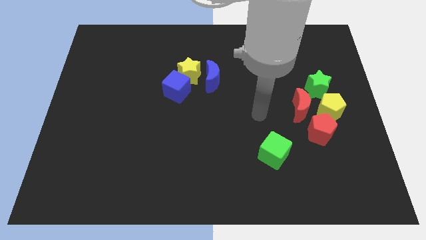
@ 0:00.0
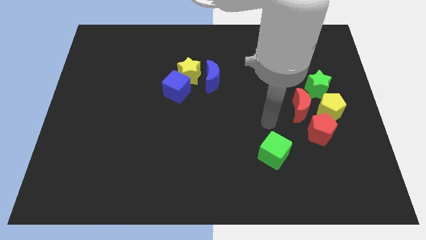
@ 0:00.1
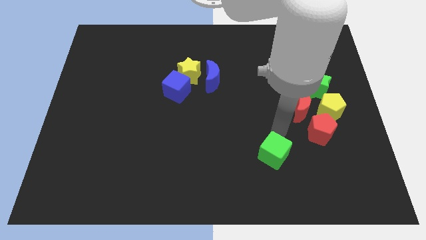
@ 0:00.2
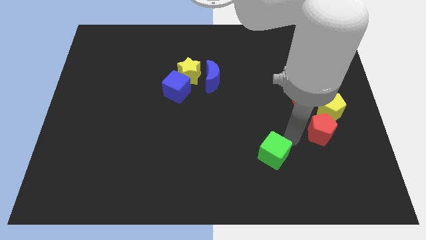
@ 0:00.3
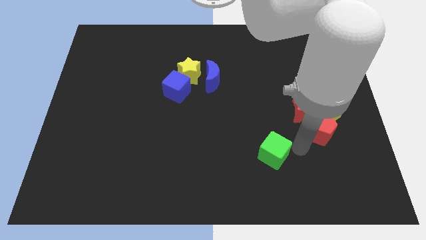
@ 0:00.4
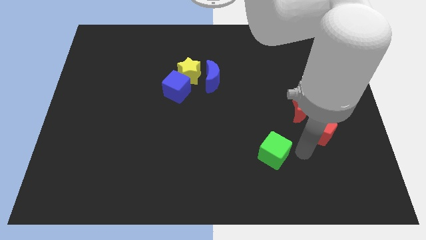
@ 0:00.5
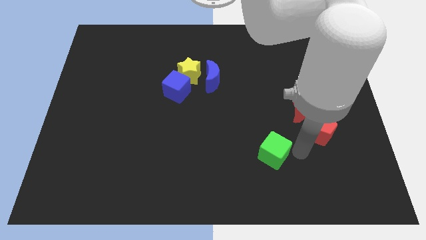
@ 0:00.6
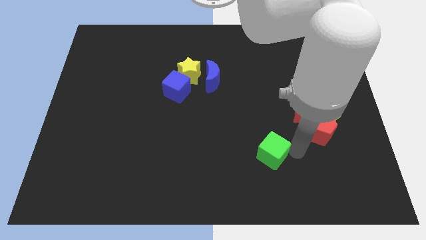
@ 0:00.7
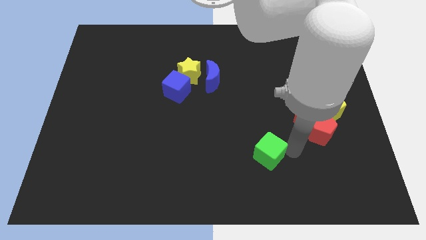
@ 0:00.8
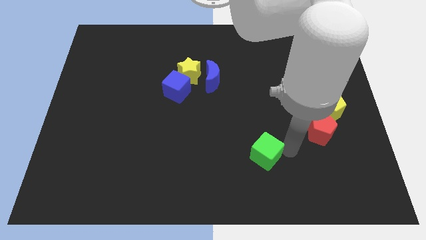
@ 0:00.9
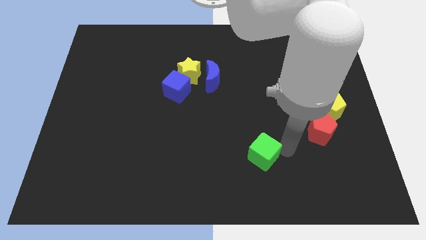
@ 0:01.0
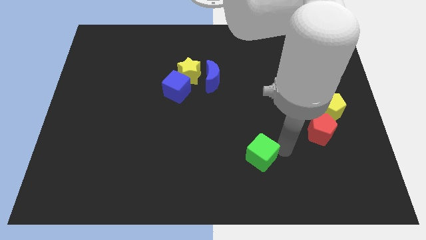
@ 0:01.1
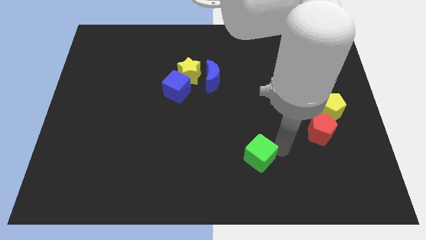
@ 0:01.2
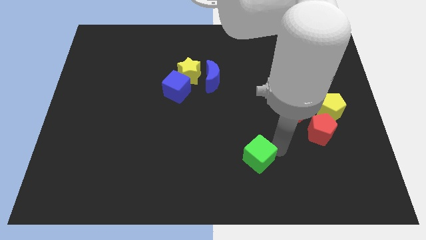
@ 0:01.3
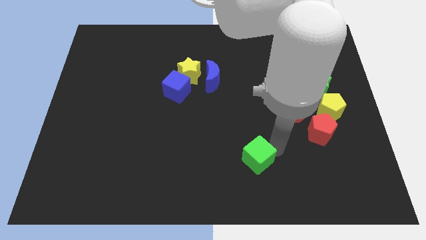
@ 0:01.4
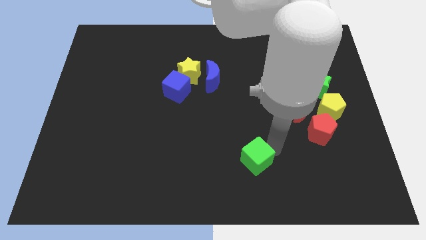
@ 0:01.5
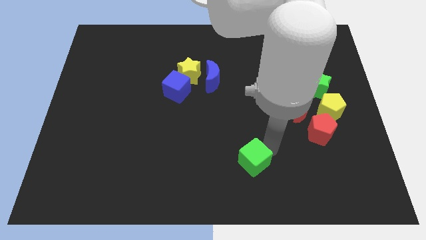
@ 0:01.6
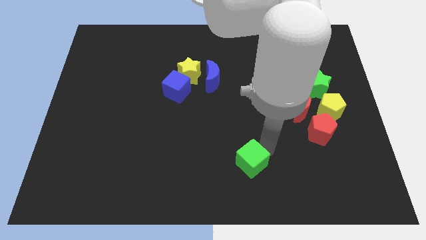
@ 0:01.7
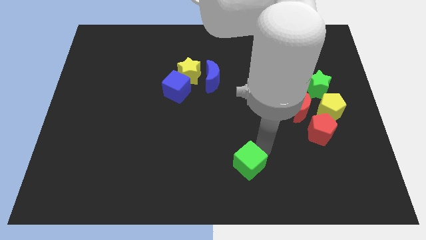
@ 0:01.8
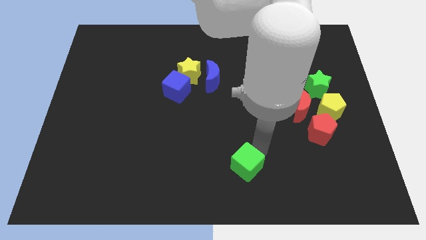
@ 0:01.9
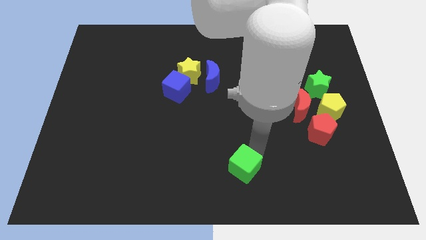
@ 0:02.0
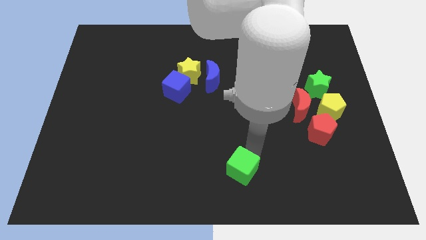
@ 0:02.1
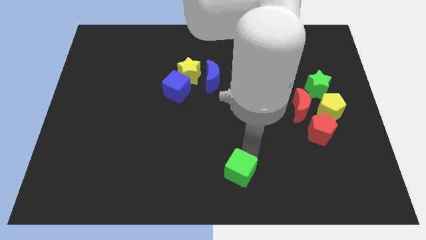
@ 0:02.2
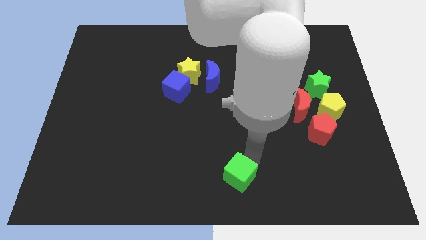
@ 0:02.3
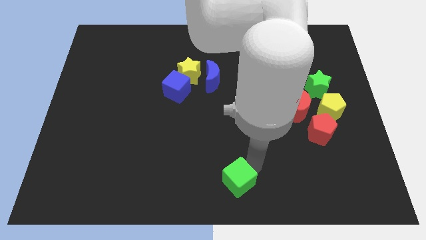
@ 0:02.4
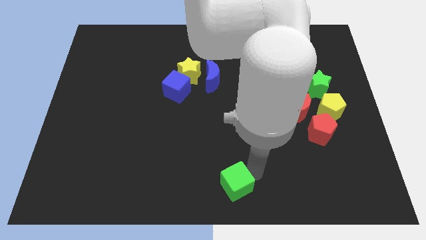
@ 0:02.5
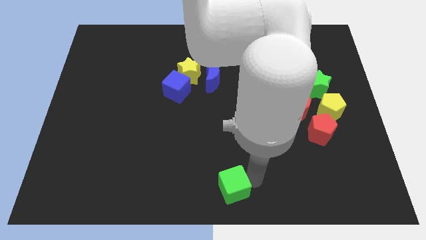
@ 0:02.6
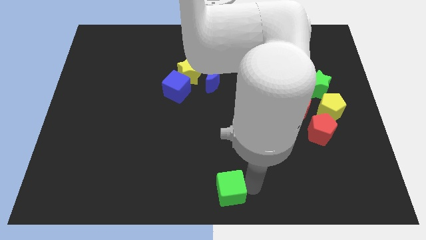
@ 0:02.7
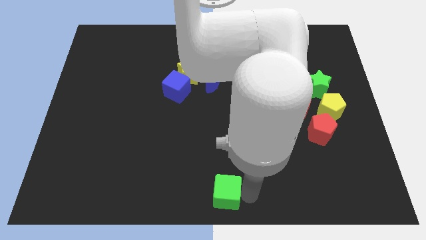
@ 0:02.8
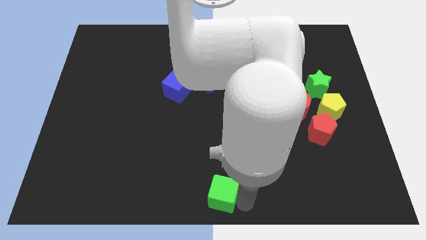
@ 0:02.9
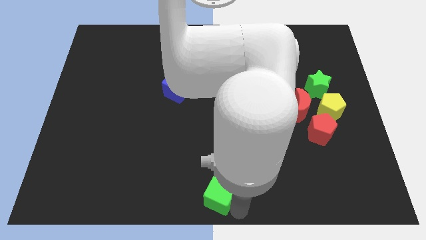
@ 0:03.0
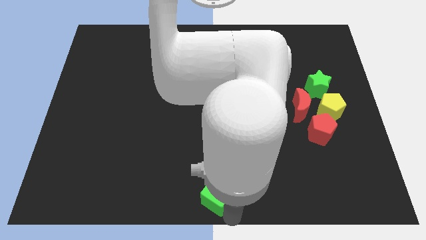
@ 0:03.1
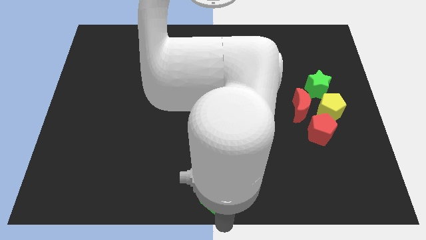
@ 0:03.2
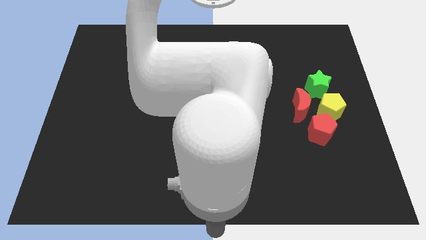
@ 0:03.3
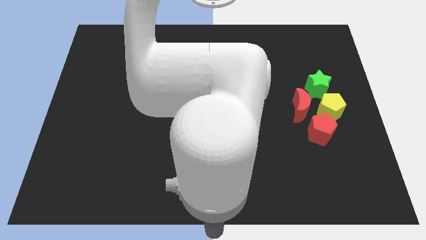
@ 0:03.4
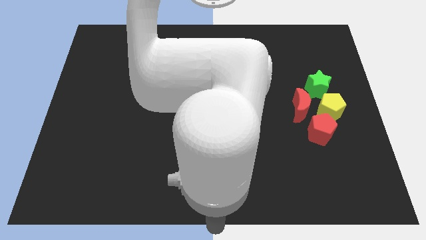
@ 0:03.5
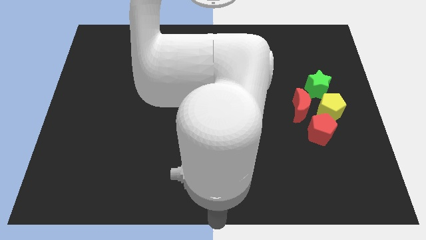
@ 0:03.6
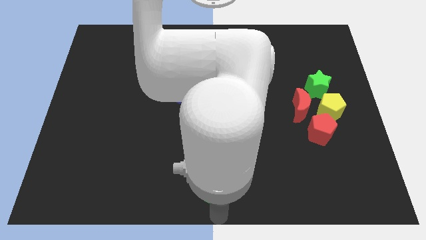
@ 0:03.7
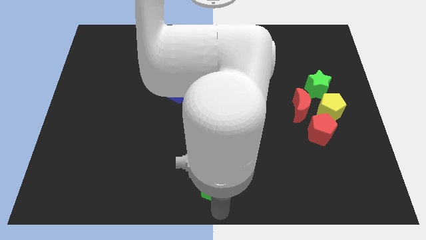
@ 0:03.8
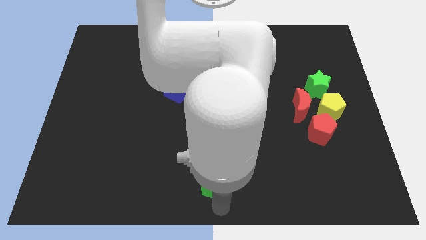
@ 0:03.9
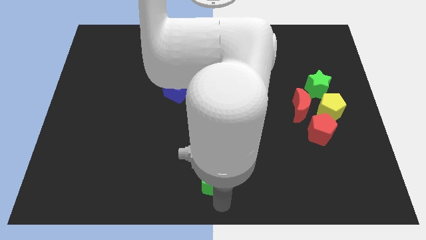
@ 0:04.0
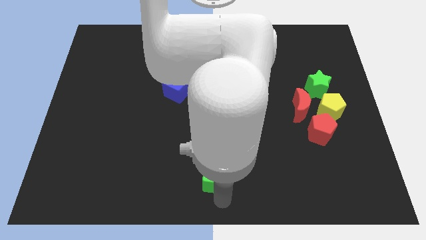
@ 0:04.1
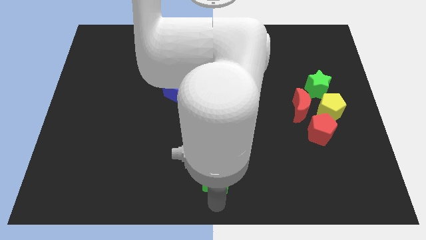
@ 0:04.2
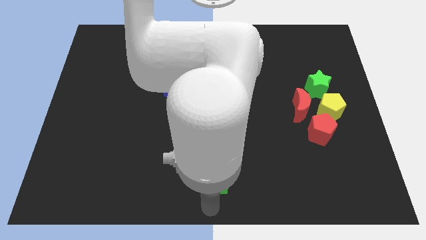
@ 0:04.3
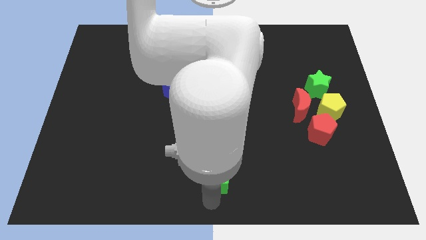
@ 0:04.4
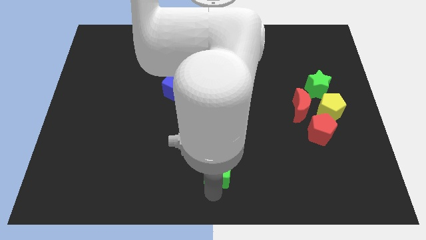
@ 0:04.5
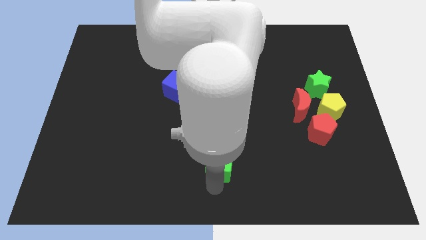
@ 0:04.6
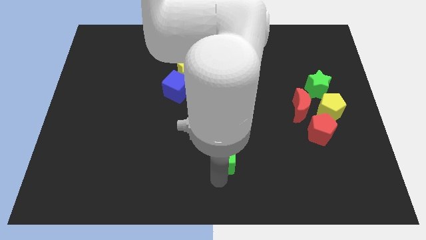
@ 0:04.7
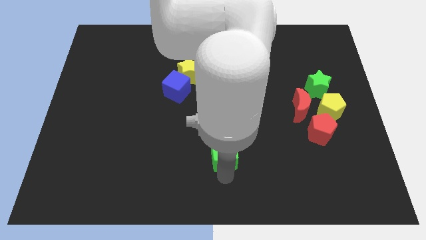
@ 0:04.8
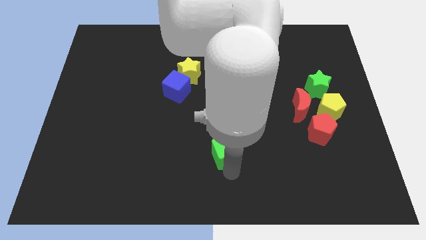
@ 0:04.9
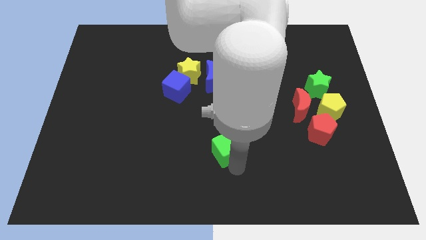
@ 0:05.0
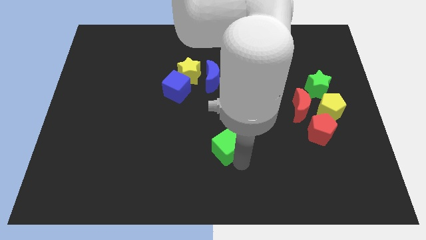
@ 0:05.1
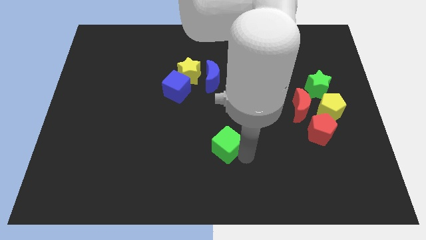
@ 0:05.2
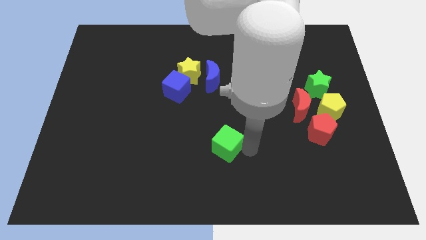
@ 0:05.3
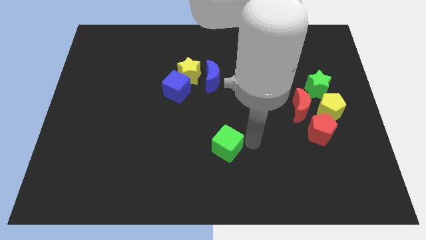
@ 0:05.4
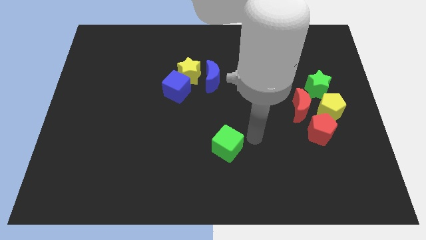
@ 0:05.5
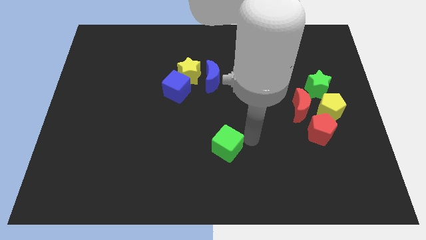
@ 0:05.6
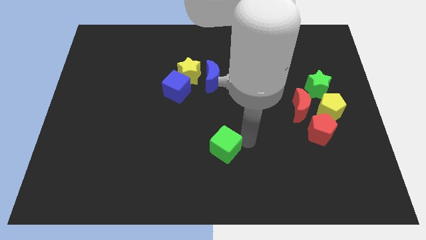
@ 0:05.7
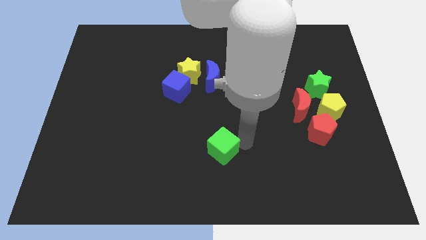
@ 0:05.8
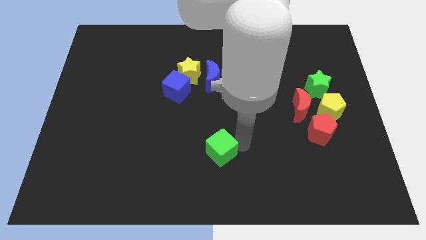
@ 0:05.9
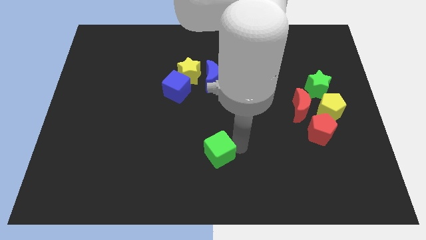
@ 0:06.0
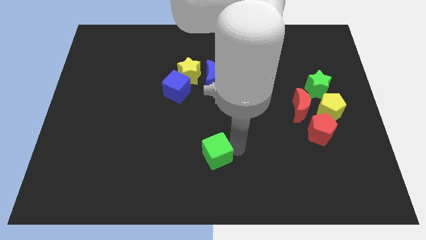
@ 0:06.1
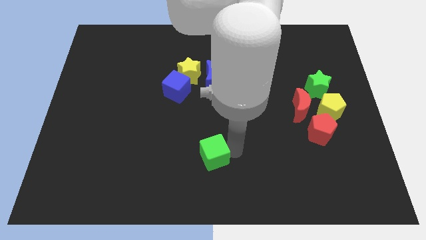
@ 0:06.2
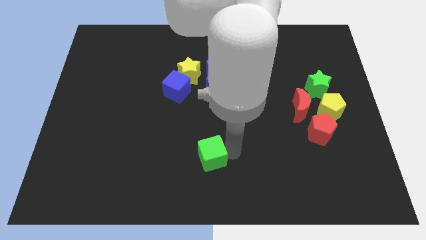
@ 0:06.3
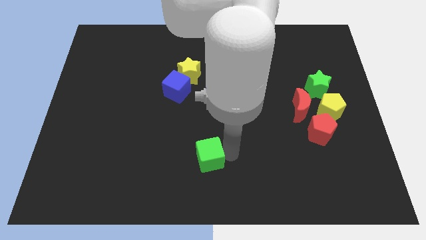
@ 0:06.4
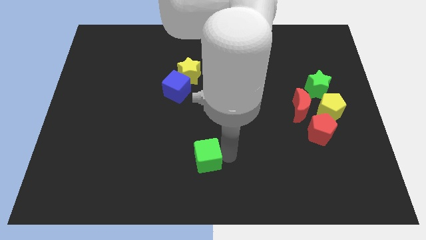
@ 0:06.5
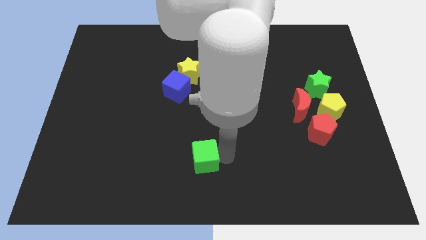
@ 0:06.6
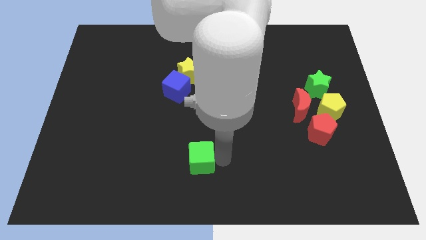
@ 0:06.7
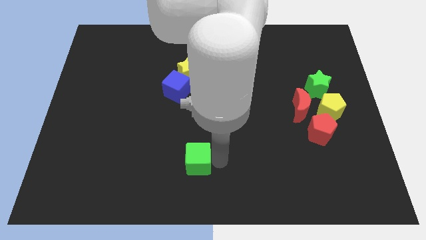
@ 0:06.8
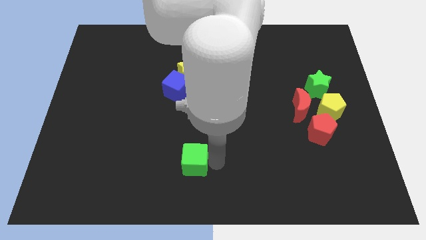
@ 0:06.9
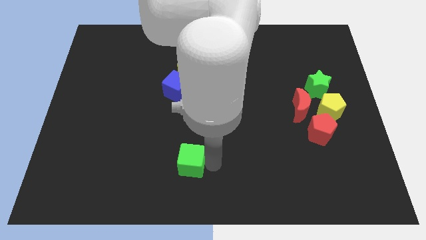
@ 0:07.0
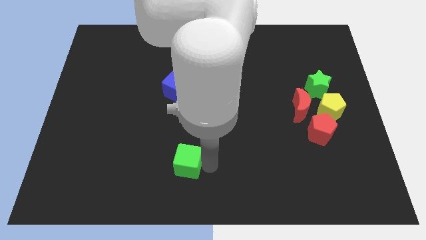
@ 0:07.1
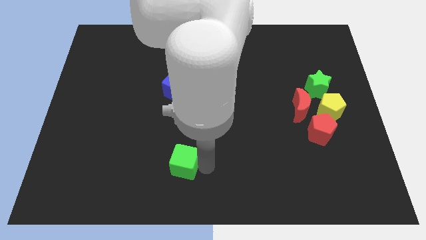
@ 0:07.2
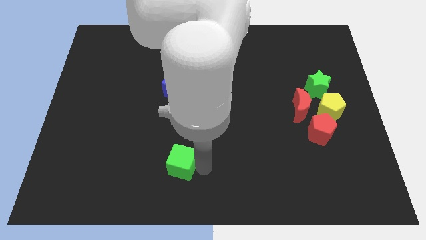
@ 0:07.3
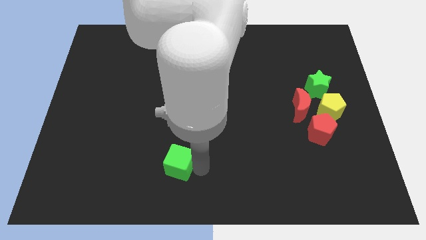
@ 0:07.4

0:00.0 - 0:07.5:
move the green cube to the left
